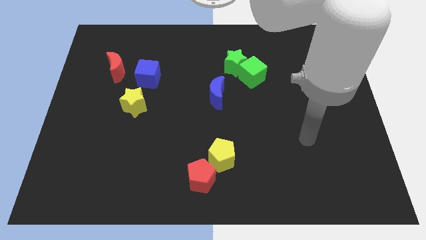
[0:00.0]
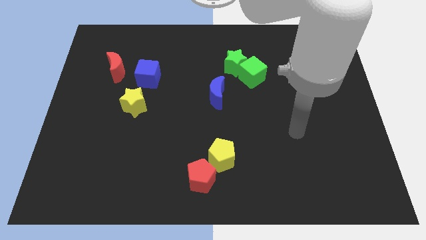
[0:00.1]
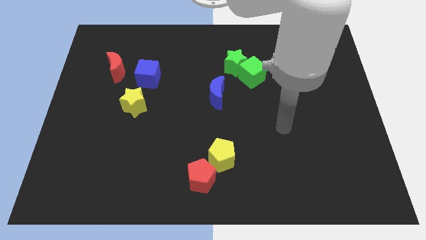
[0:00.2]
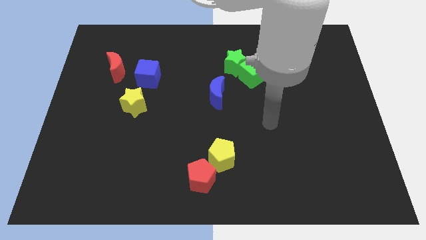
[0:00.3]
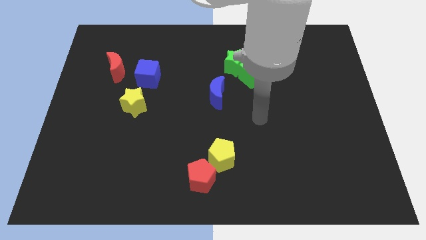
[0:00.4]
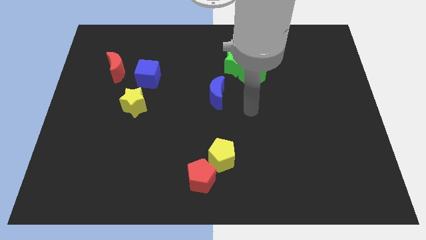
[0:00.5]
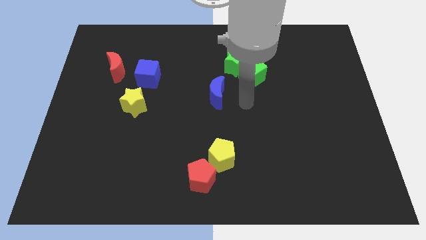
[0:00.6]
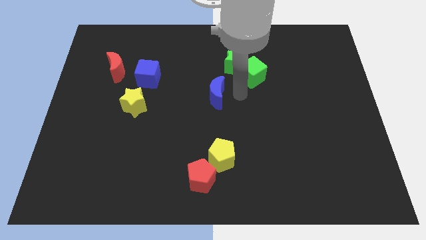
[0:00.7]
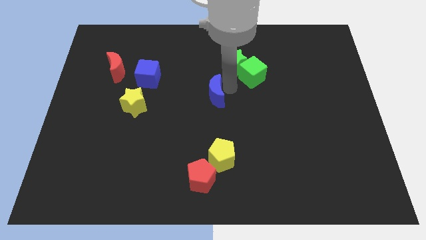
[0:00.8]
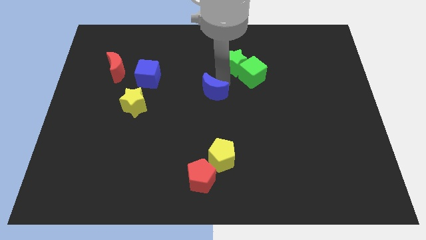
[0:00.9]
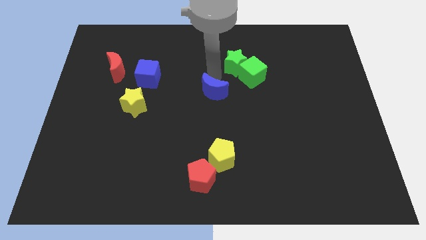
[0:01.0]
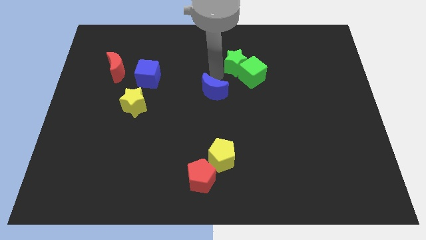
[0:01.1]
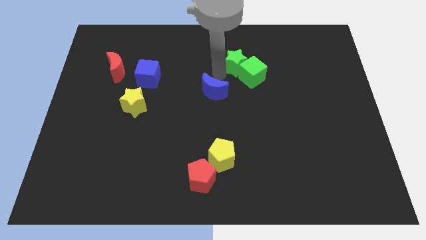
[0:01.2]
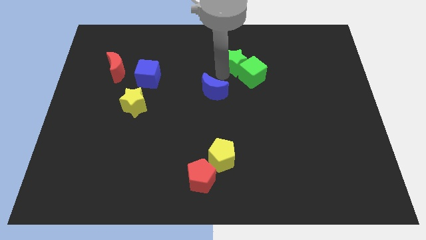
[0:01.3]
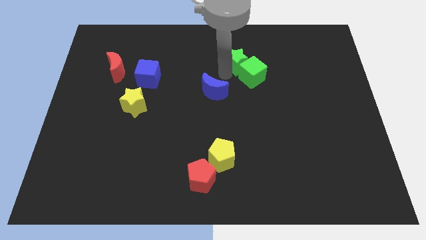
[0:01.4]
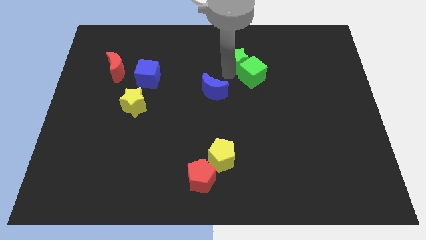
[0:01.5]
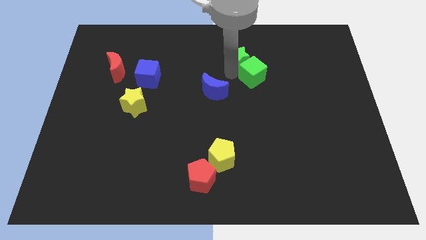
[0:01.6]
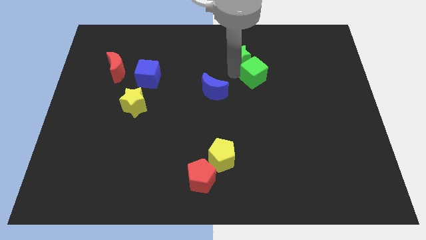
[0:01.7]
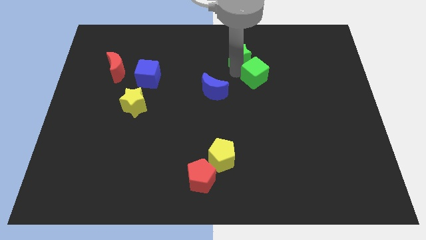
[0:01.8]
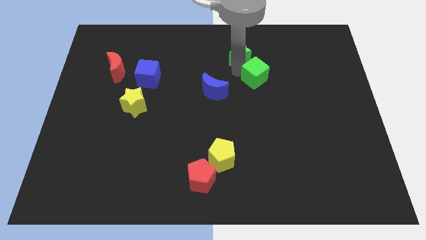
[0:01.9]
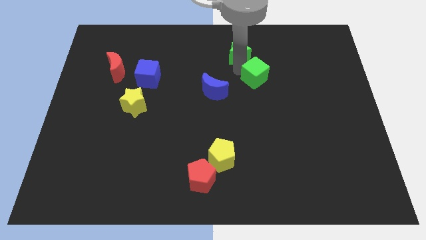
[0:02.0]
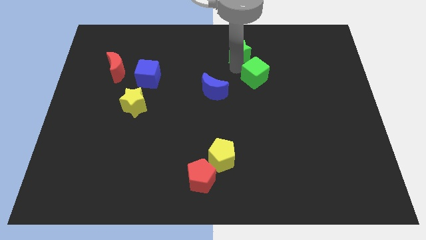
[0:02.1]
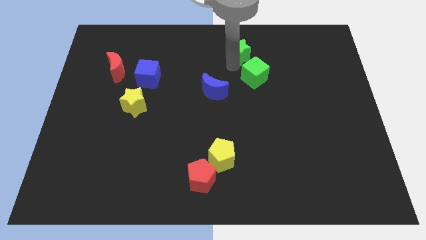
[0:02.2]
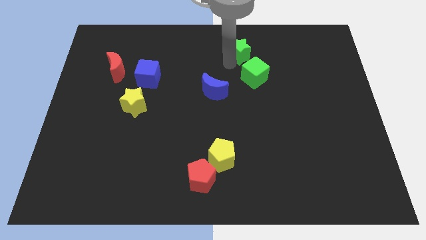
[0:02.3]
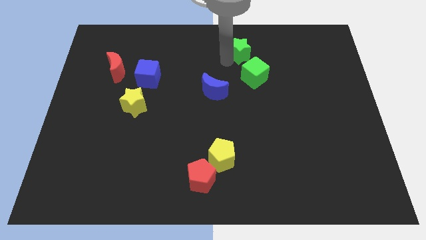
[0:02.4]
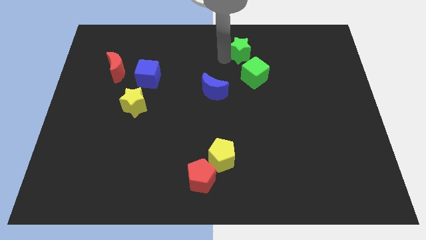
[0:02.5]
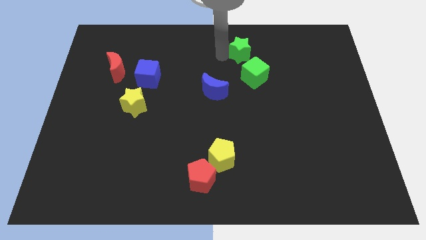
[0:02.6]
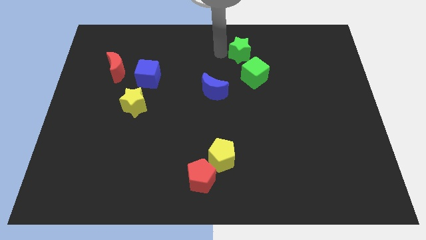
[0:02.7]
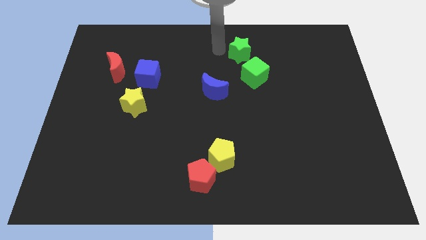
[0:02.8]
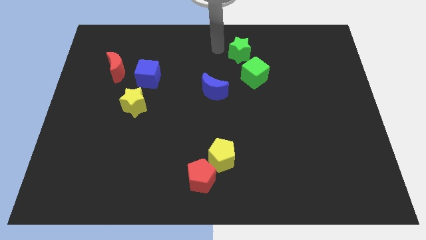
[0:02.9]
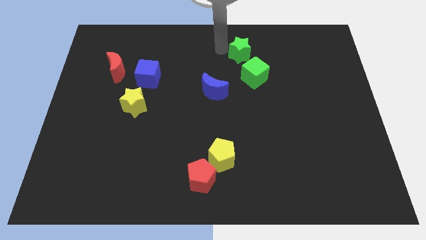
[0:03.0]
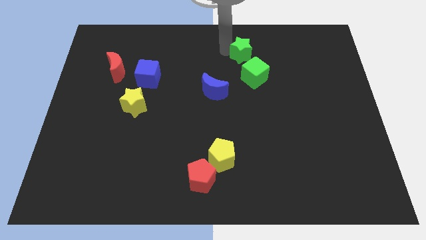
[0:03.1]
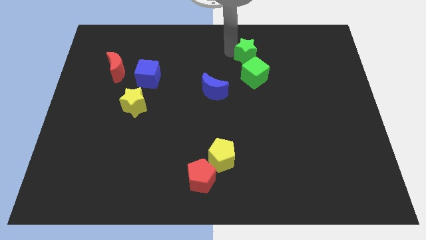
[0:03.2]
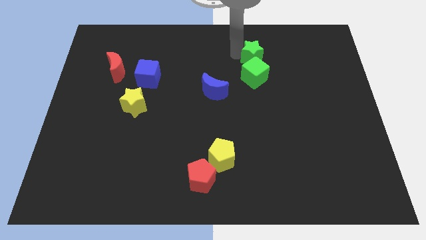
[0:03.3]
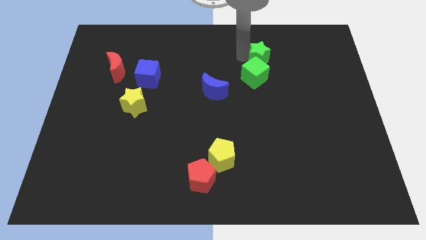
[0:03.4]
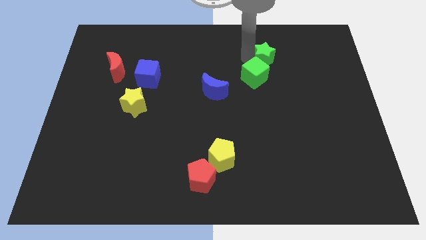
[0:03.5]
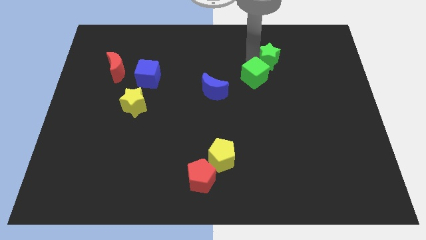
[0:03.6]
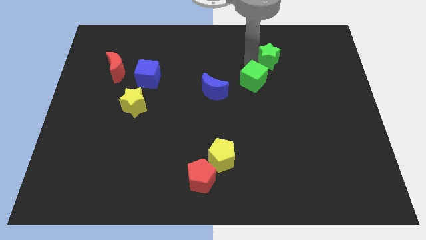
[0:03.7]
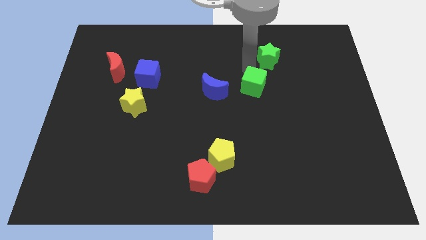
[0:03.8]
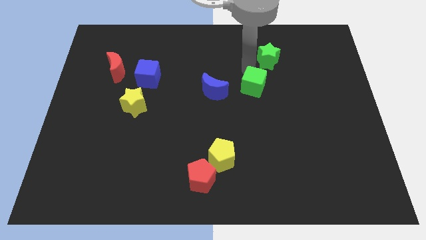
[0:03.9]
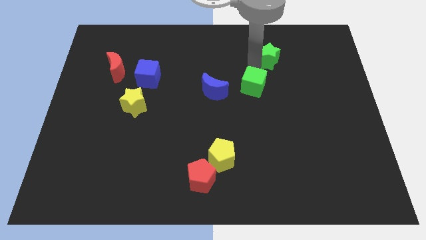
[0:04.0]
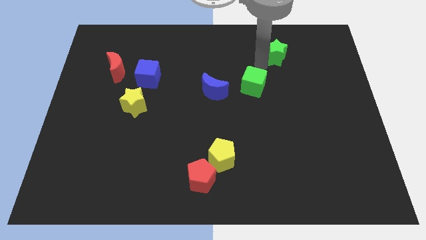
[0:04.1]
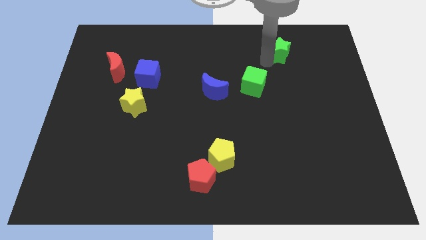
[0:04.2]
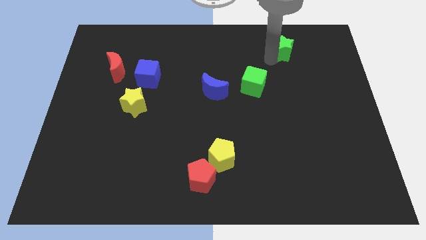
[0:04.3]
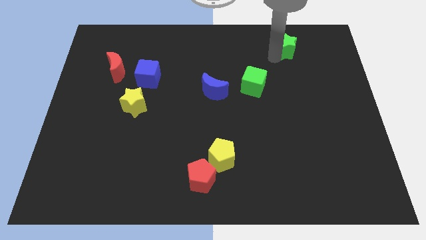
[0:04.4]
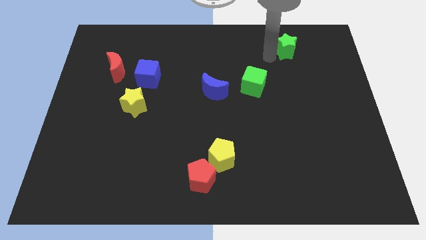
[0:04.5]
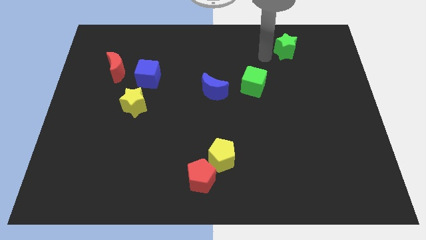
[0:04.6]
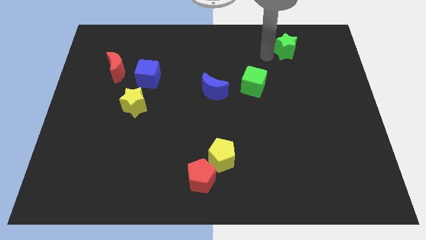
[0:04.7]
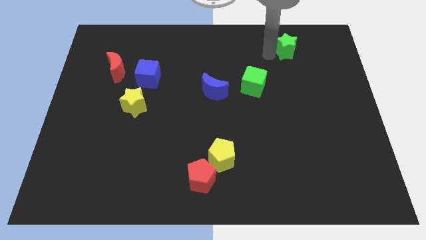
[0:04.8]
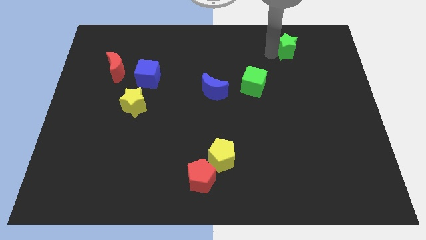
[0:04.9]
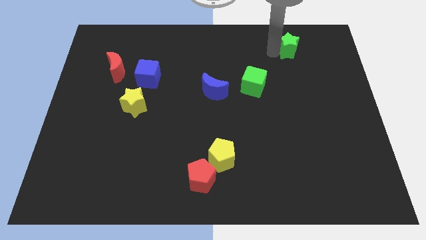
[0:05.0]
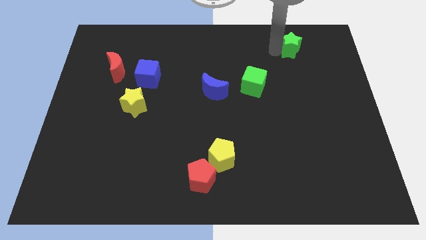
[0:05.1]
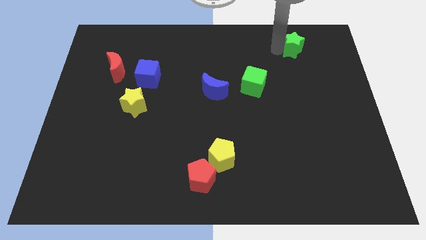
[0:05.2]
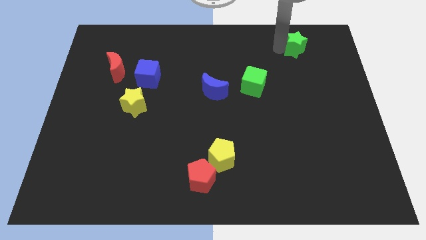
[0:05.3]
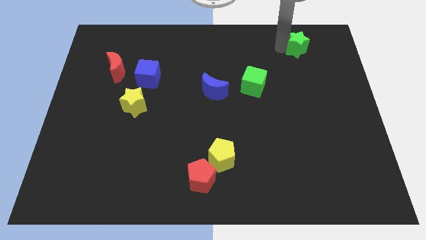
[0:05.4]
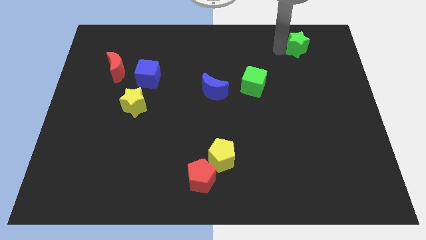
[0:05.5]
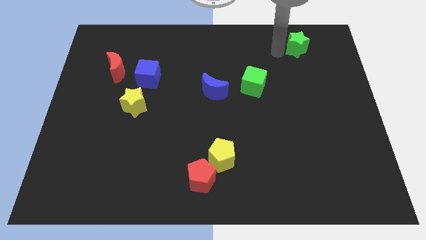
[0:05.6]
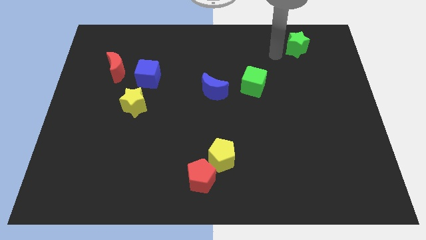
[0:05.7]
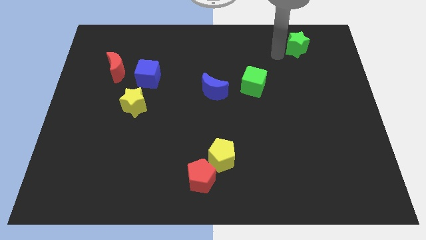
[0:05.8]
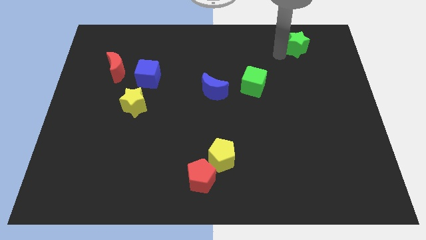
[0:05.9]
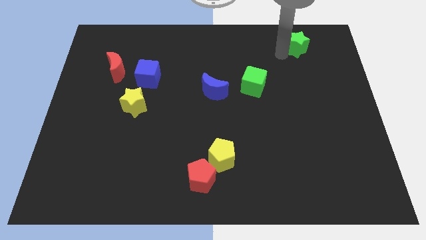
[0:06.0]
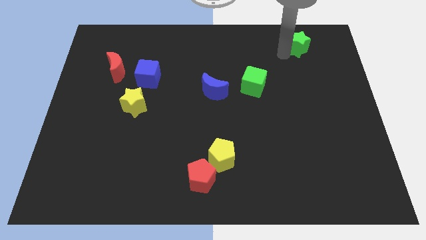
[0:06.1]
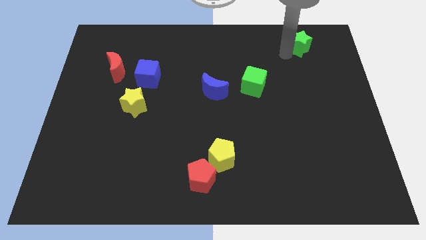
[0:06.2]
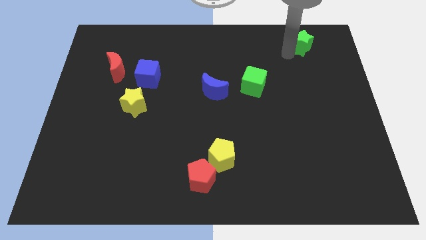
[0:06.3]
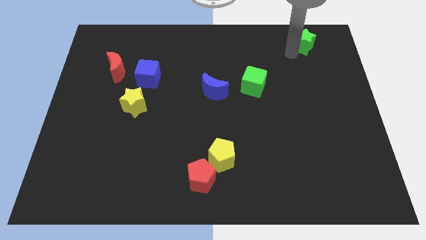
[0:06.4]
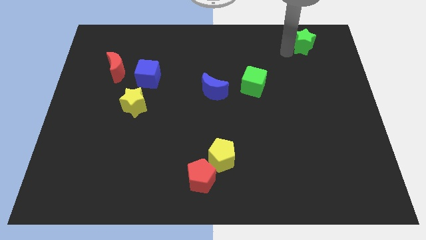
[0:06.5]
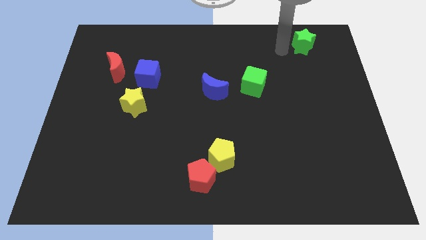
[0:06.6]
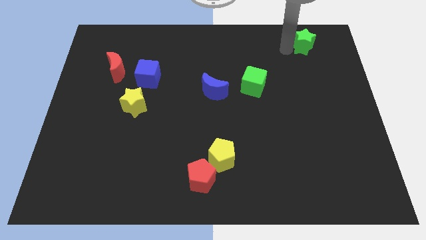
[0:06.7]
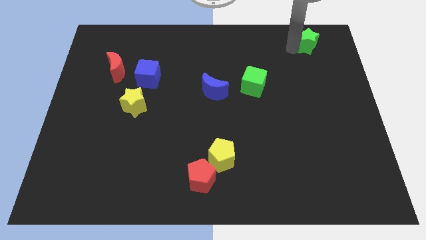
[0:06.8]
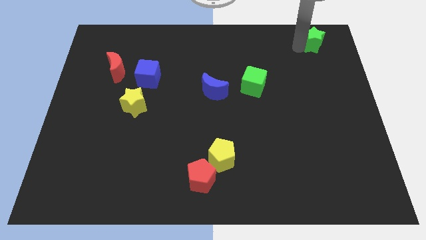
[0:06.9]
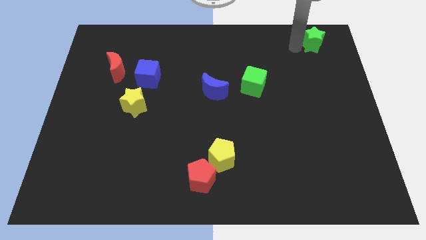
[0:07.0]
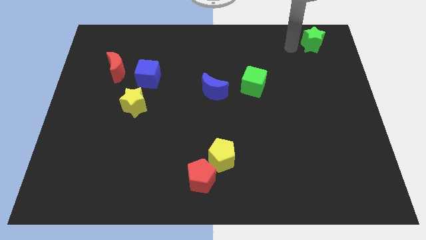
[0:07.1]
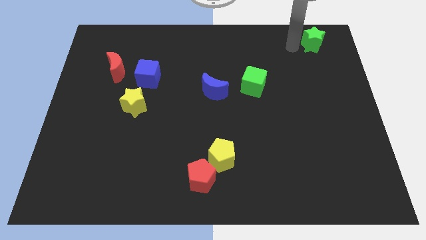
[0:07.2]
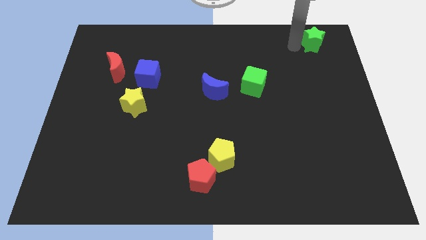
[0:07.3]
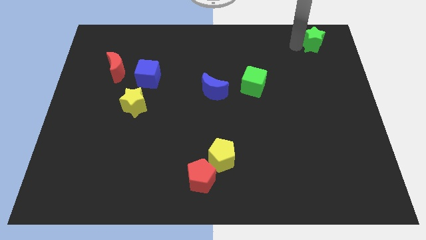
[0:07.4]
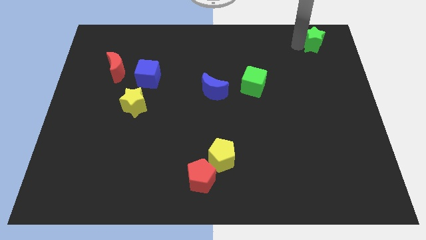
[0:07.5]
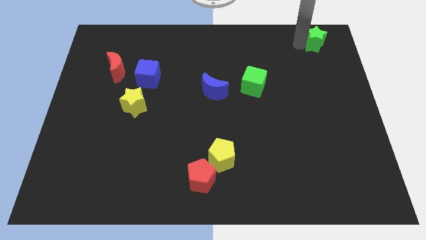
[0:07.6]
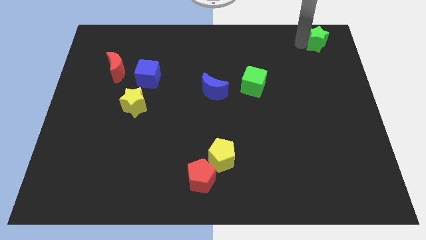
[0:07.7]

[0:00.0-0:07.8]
put the green star to the top right of the board

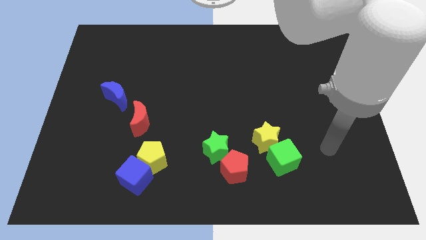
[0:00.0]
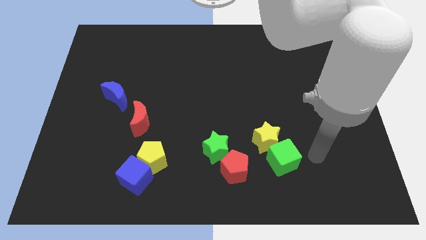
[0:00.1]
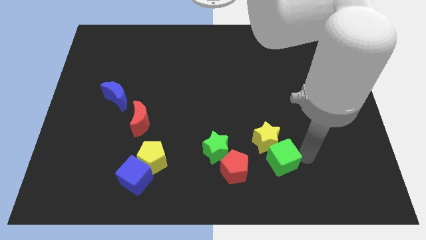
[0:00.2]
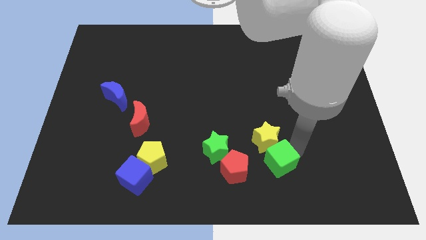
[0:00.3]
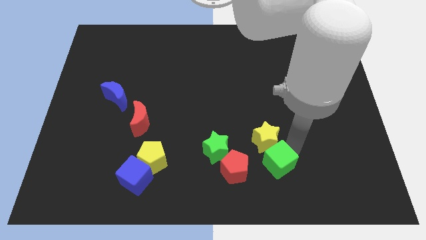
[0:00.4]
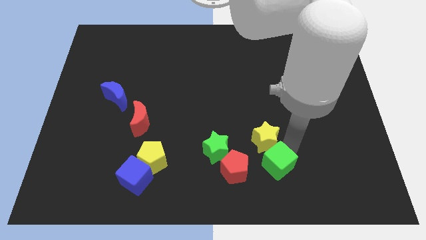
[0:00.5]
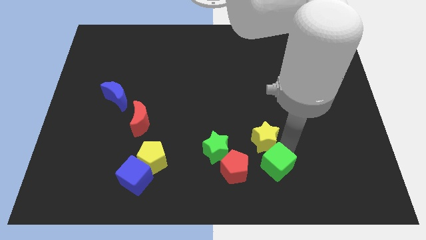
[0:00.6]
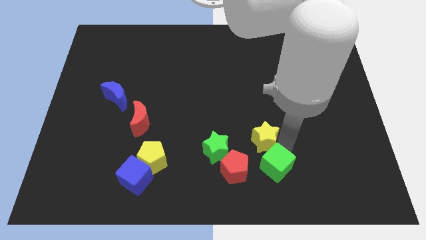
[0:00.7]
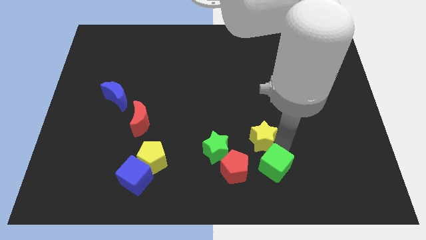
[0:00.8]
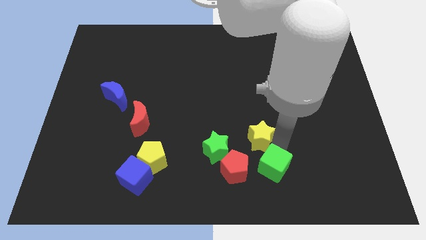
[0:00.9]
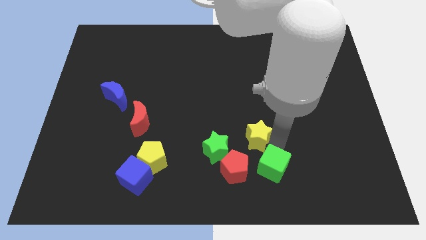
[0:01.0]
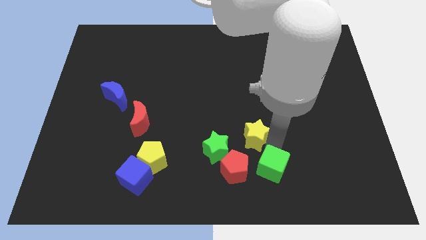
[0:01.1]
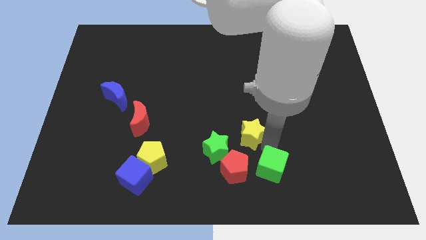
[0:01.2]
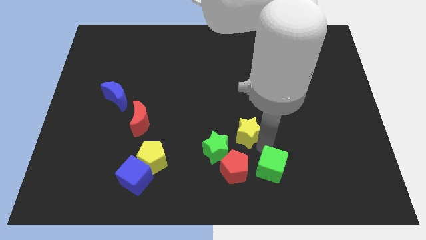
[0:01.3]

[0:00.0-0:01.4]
put the yellow star to the middle
